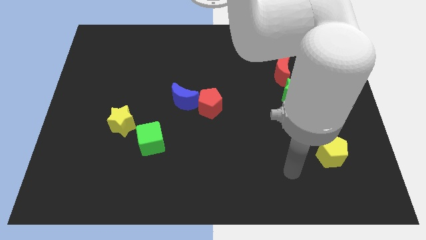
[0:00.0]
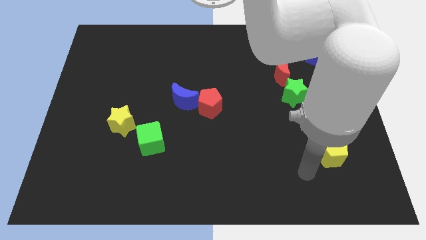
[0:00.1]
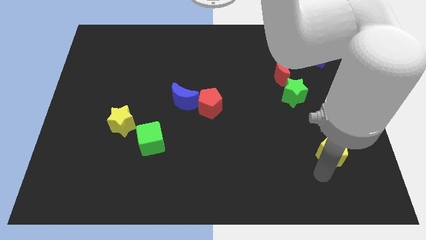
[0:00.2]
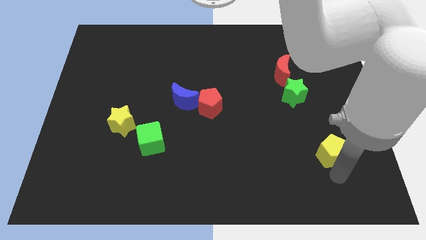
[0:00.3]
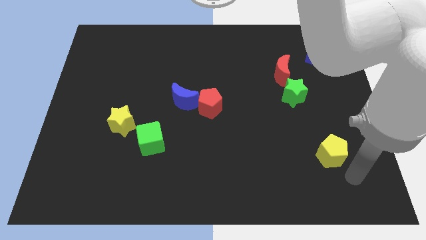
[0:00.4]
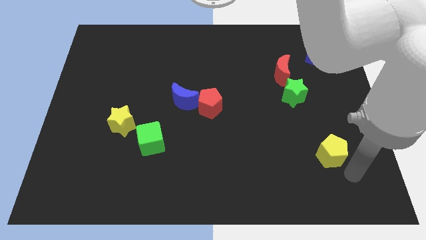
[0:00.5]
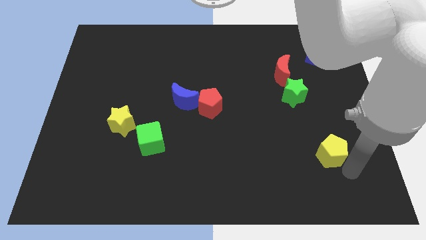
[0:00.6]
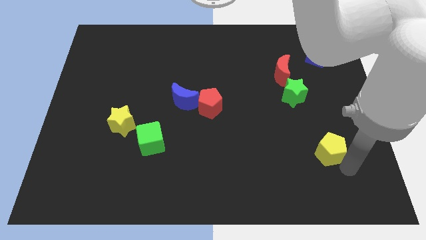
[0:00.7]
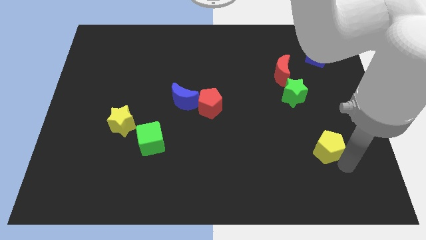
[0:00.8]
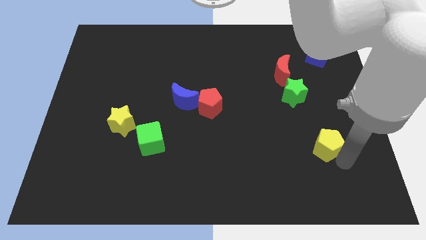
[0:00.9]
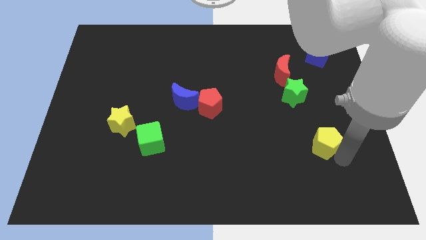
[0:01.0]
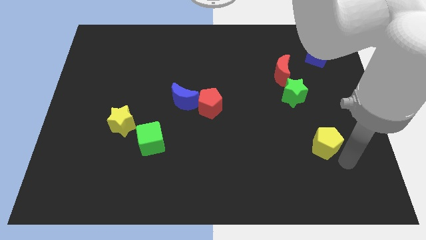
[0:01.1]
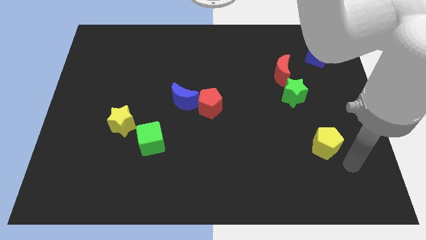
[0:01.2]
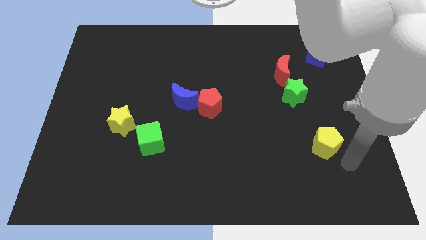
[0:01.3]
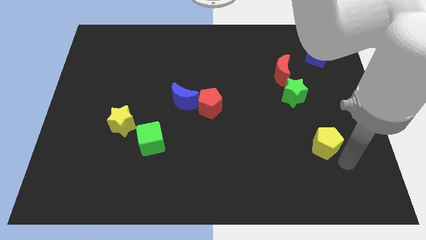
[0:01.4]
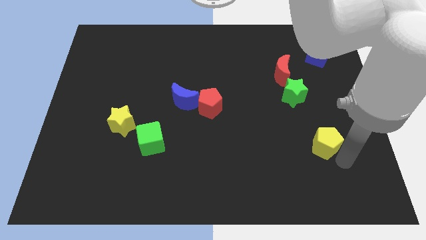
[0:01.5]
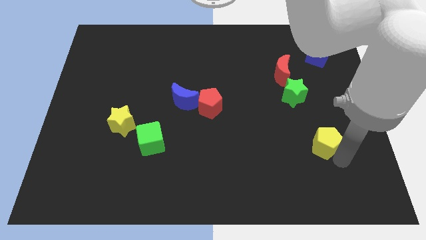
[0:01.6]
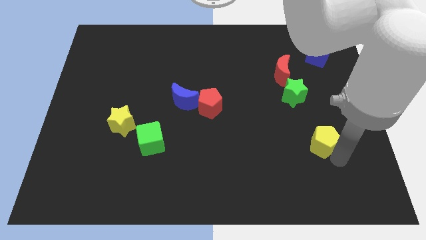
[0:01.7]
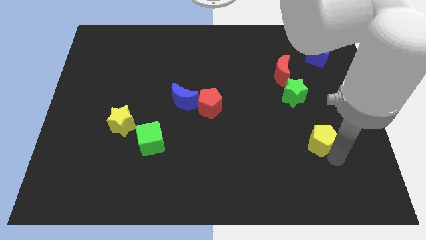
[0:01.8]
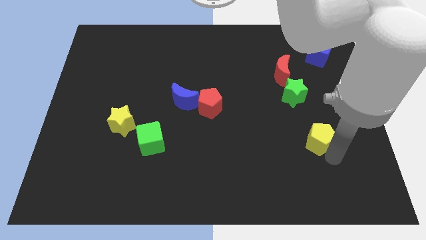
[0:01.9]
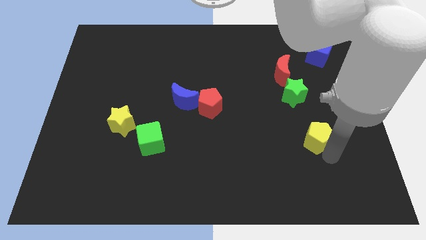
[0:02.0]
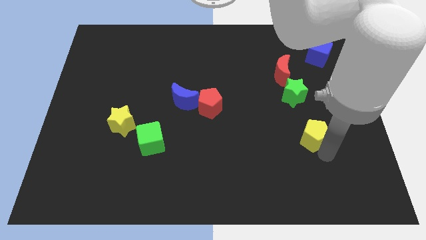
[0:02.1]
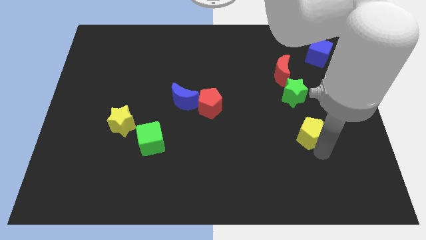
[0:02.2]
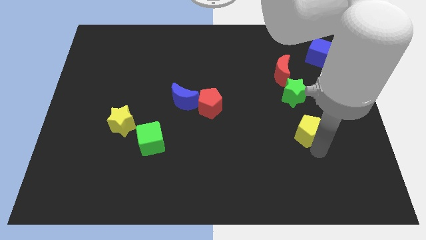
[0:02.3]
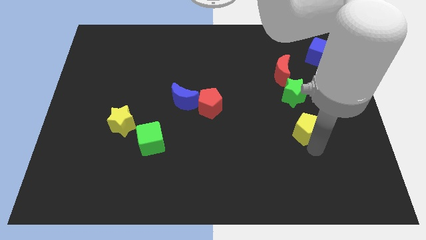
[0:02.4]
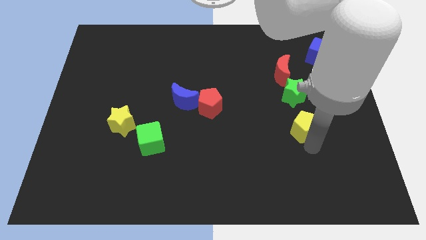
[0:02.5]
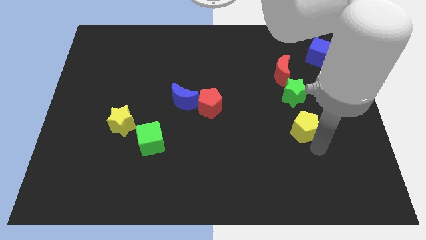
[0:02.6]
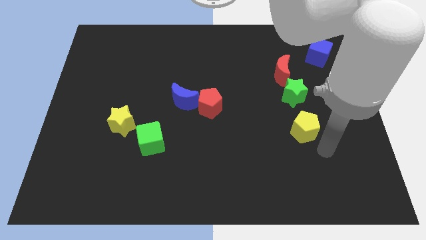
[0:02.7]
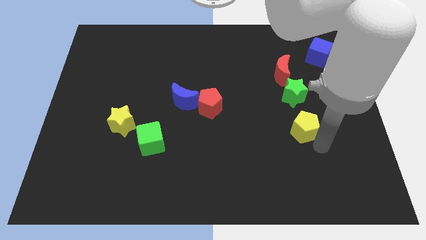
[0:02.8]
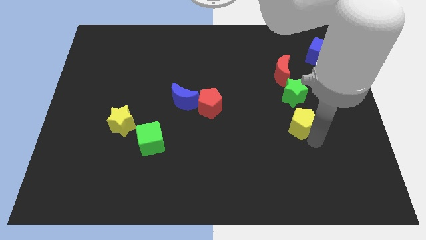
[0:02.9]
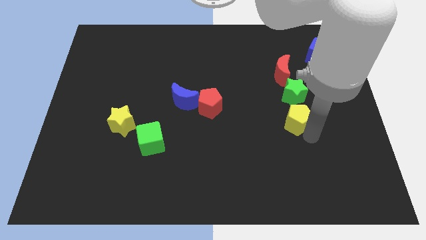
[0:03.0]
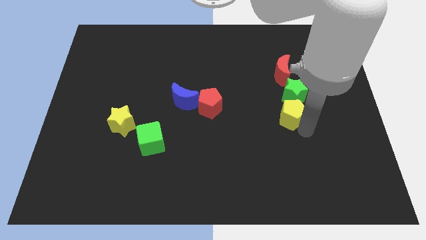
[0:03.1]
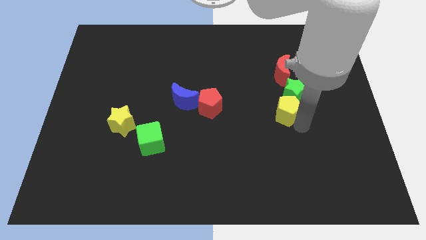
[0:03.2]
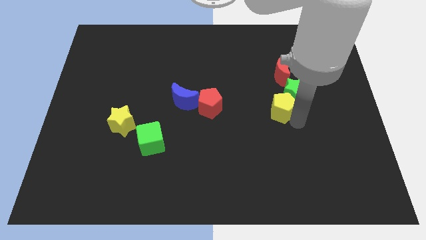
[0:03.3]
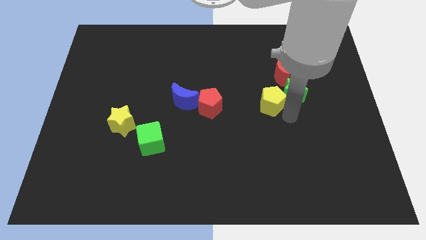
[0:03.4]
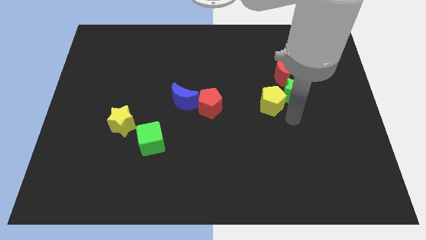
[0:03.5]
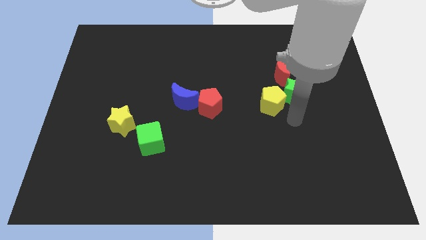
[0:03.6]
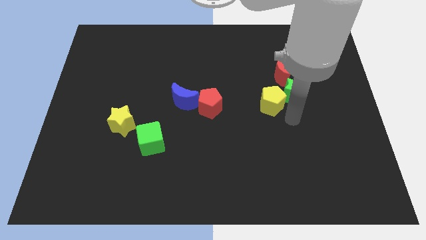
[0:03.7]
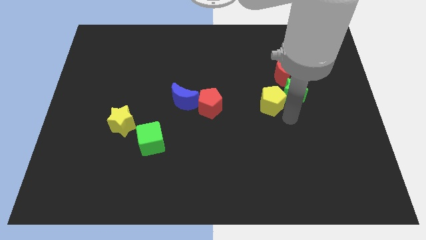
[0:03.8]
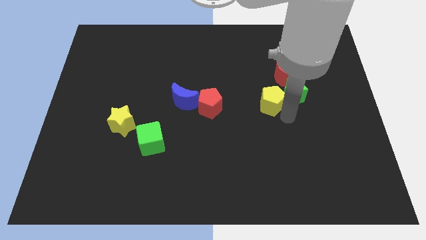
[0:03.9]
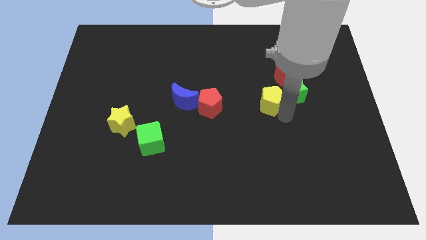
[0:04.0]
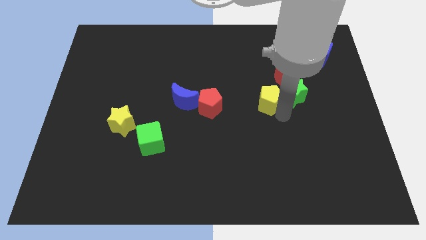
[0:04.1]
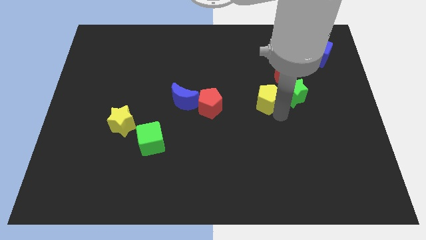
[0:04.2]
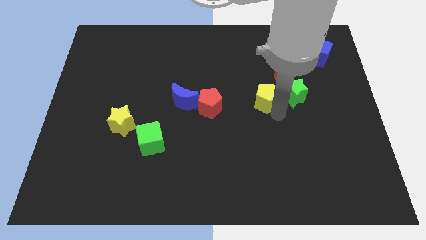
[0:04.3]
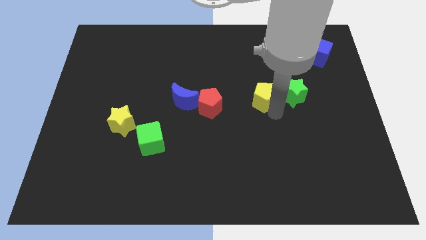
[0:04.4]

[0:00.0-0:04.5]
push the yellow pentagon up and then to the left

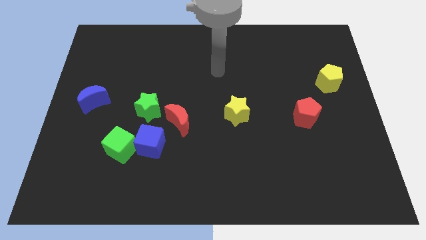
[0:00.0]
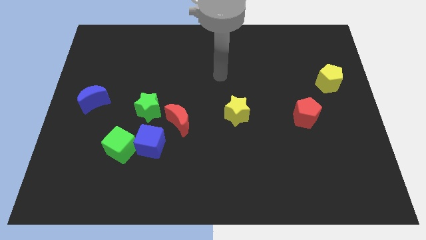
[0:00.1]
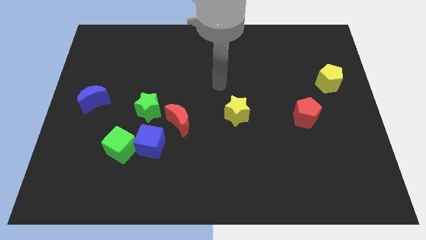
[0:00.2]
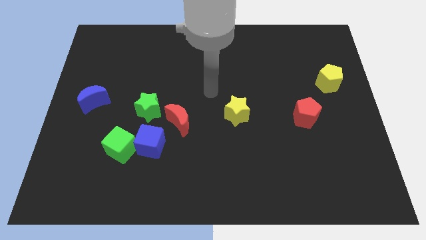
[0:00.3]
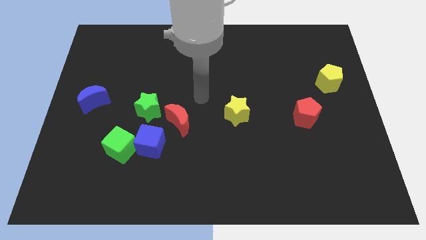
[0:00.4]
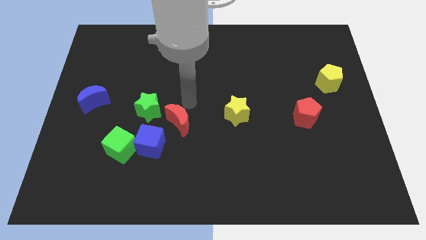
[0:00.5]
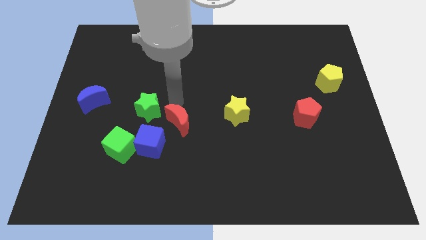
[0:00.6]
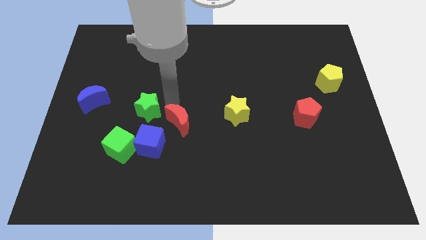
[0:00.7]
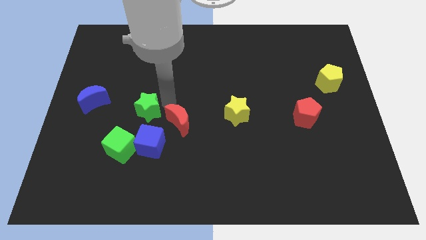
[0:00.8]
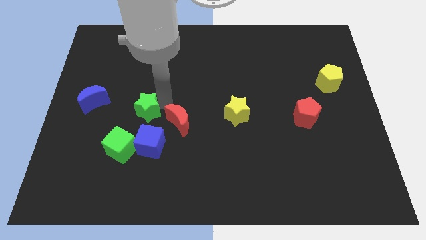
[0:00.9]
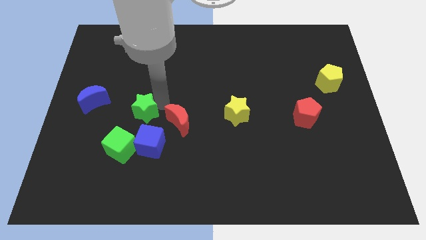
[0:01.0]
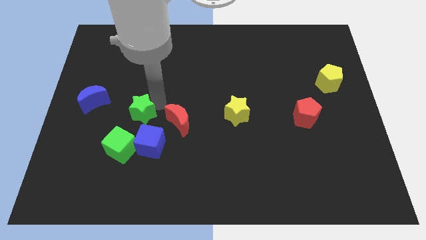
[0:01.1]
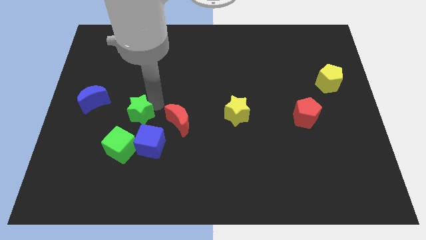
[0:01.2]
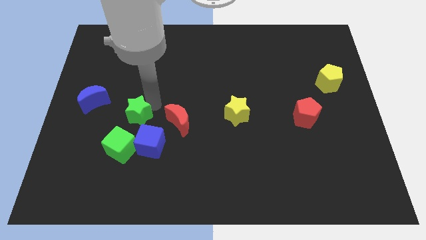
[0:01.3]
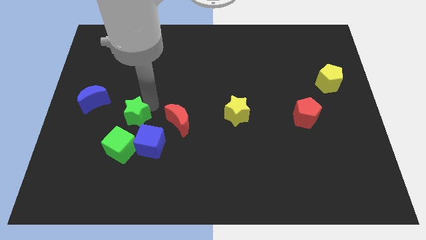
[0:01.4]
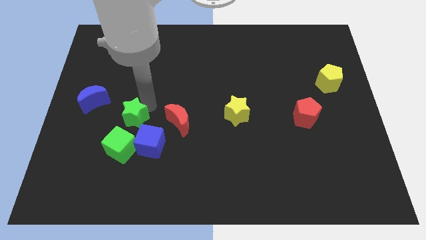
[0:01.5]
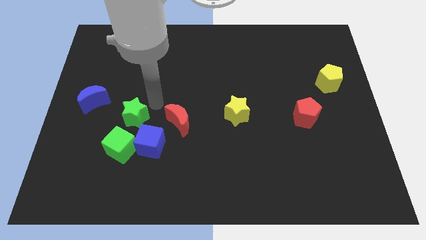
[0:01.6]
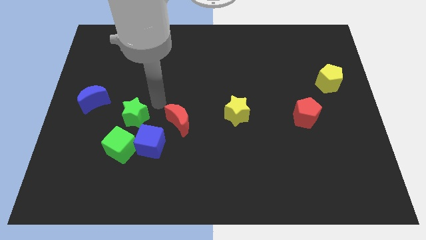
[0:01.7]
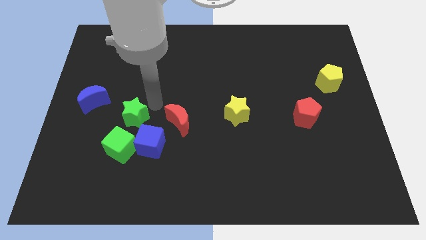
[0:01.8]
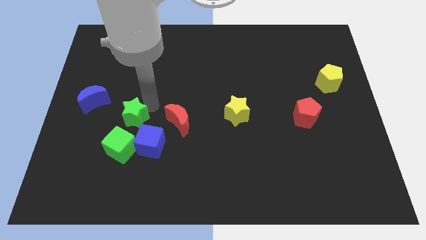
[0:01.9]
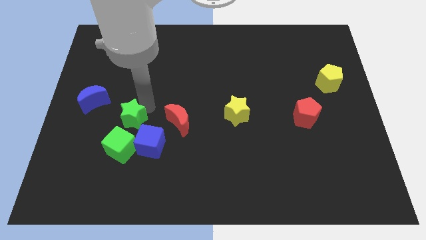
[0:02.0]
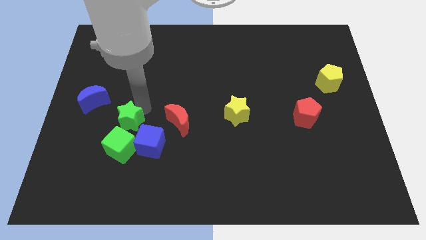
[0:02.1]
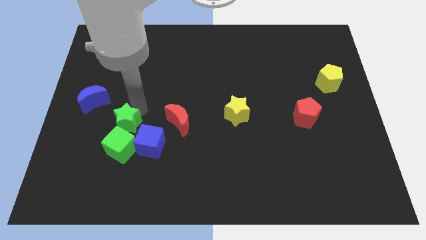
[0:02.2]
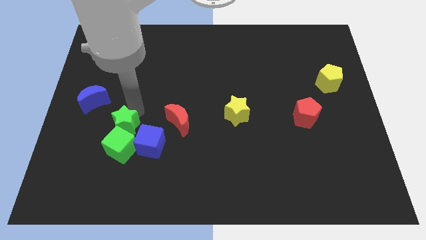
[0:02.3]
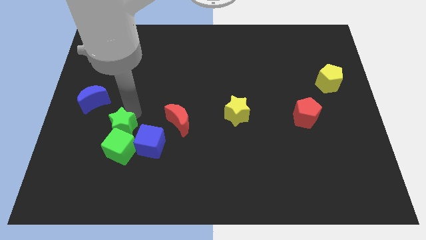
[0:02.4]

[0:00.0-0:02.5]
slightly slide the green star diagonally downwards and left

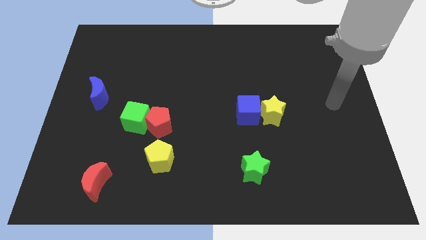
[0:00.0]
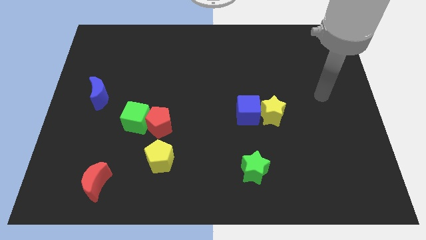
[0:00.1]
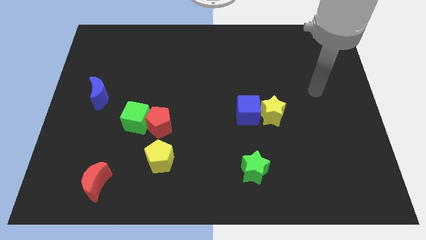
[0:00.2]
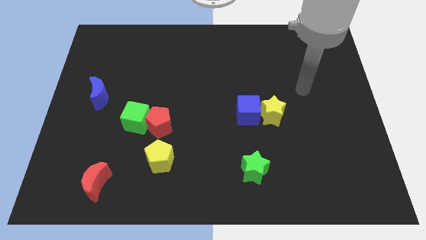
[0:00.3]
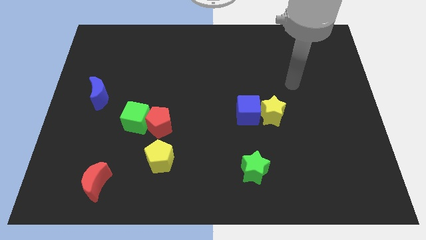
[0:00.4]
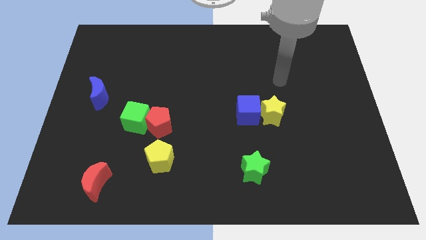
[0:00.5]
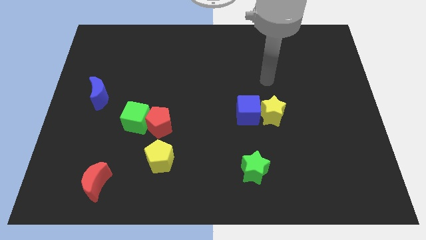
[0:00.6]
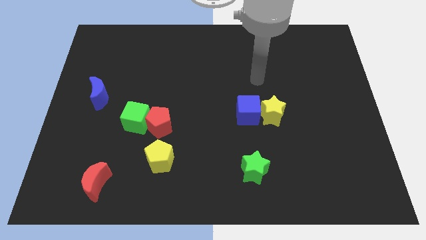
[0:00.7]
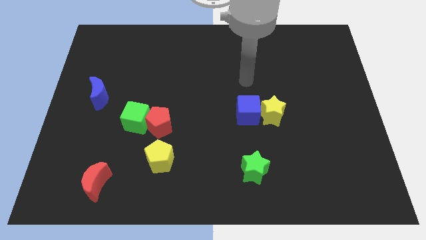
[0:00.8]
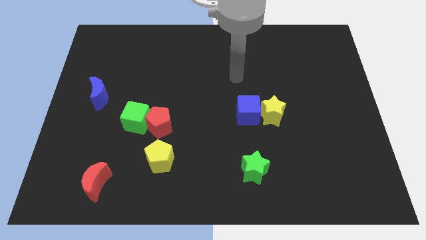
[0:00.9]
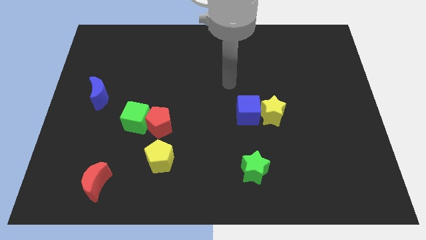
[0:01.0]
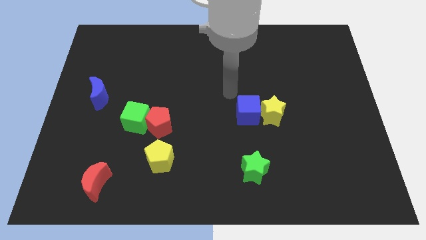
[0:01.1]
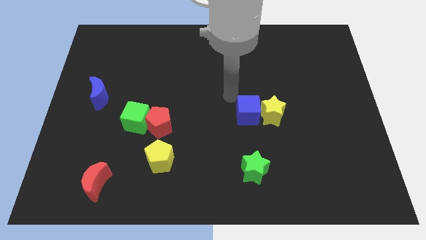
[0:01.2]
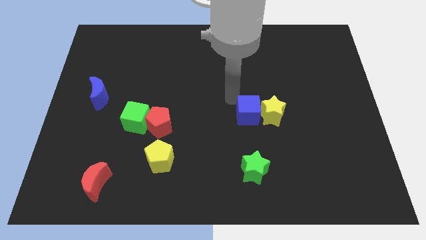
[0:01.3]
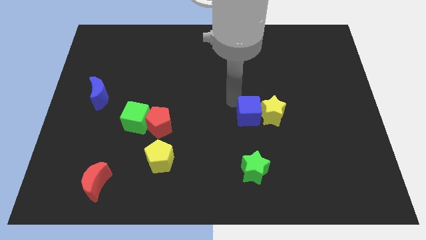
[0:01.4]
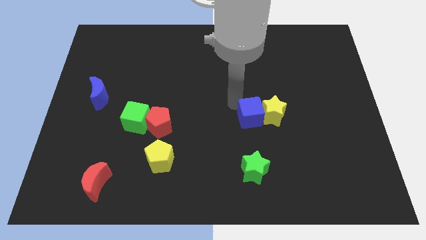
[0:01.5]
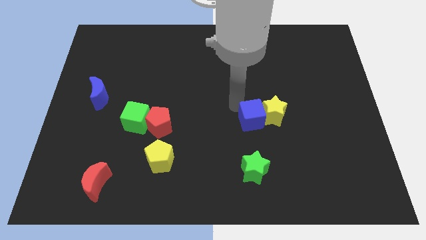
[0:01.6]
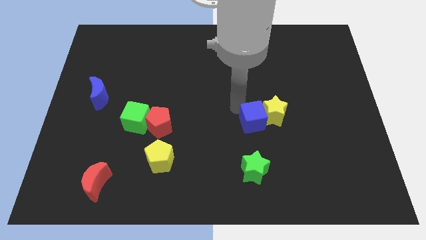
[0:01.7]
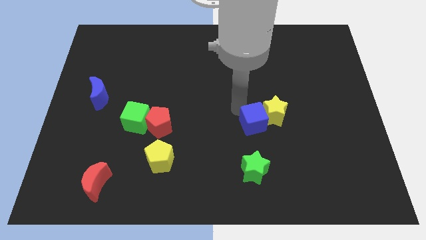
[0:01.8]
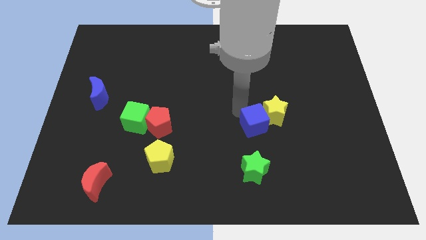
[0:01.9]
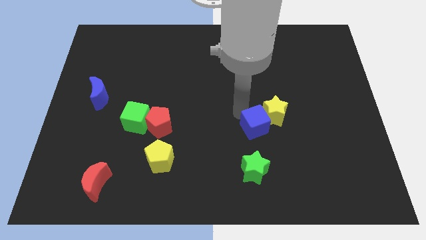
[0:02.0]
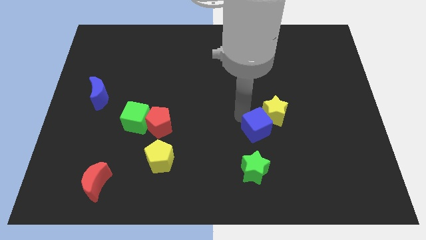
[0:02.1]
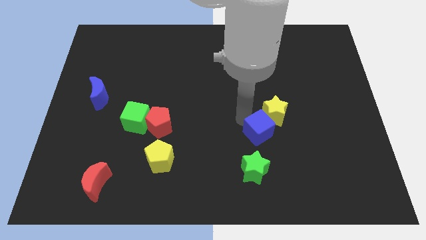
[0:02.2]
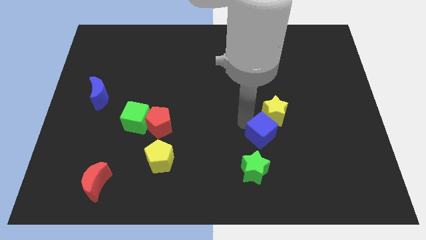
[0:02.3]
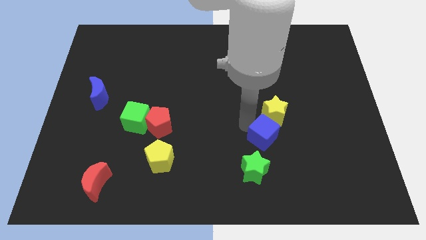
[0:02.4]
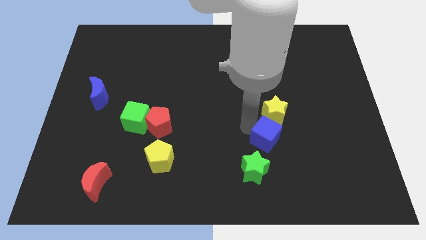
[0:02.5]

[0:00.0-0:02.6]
move the blue cube somewhat downwards and then right
